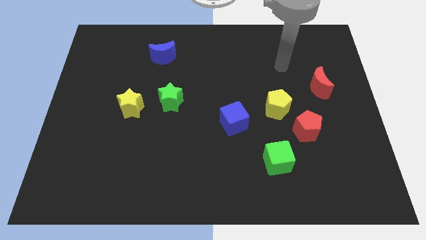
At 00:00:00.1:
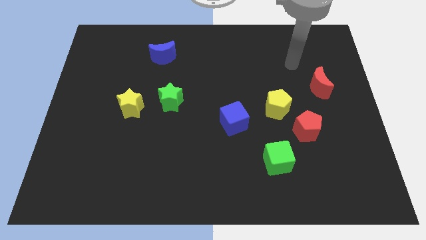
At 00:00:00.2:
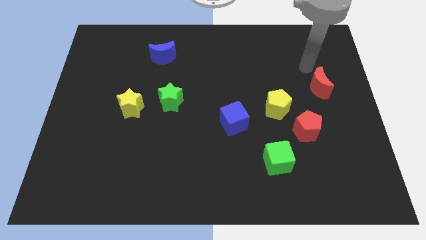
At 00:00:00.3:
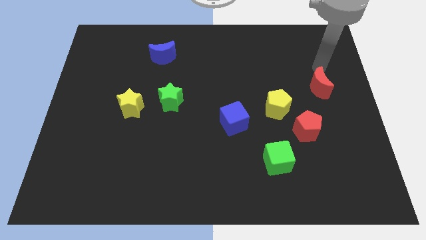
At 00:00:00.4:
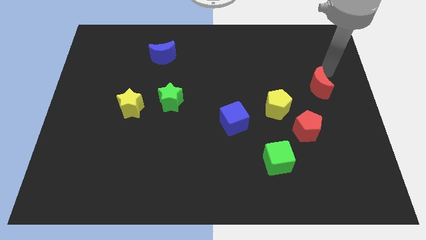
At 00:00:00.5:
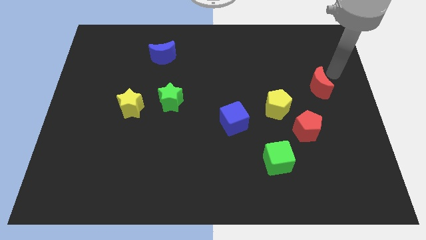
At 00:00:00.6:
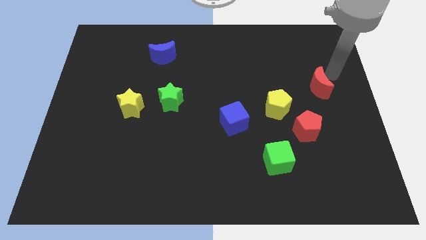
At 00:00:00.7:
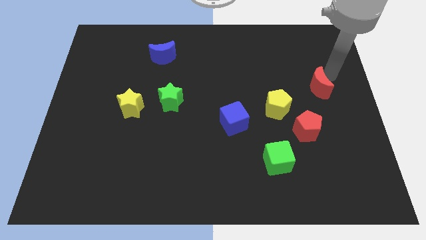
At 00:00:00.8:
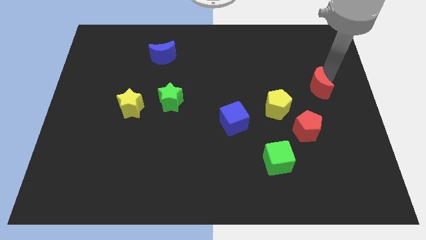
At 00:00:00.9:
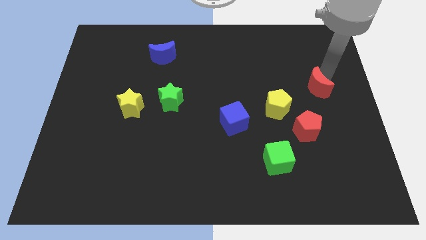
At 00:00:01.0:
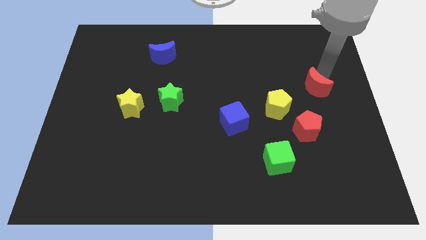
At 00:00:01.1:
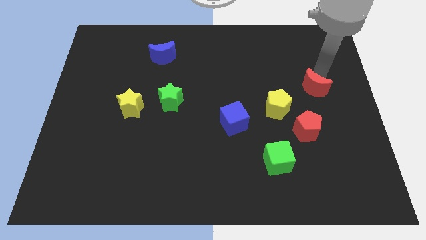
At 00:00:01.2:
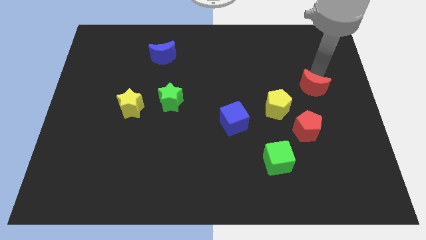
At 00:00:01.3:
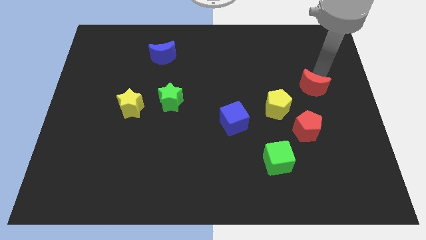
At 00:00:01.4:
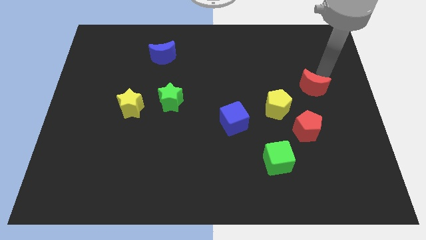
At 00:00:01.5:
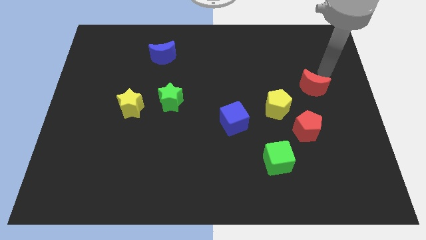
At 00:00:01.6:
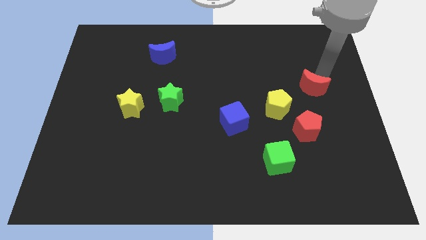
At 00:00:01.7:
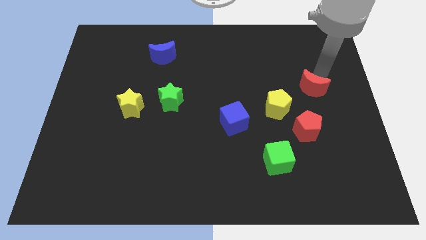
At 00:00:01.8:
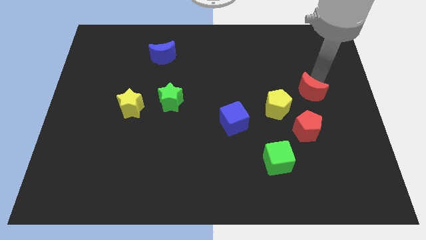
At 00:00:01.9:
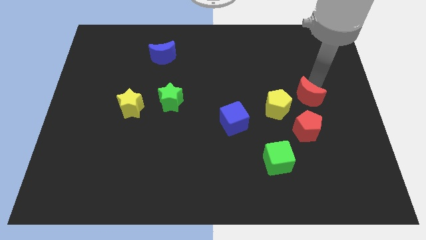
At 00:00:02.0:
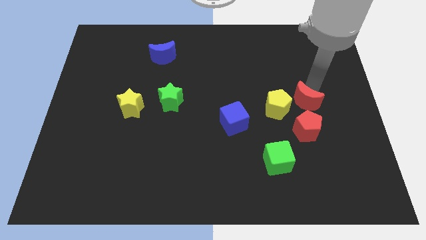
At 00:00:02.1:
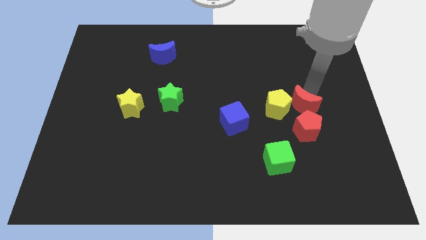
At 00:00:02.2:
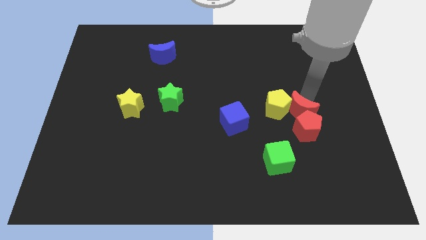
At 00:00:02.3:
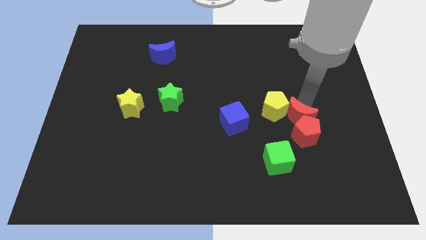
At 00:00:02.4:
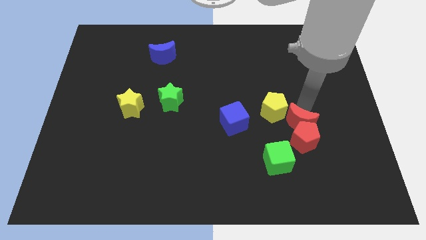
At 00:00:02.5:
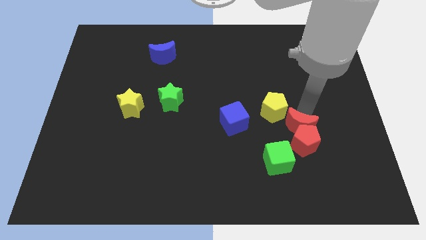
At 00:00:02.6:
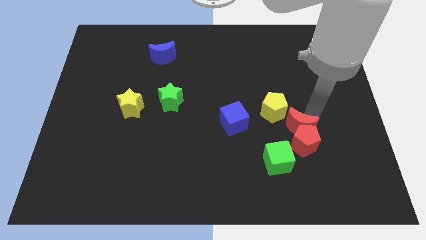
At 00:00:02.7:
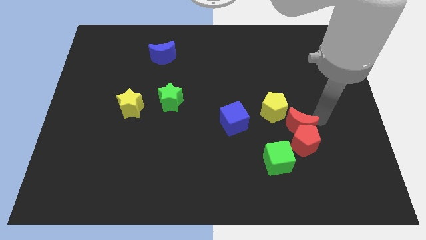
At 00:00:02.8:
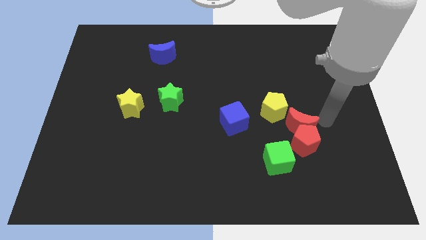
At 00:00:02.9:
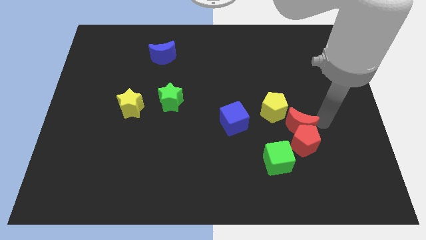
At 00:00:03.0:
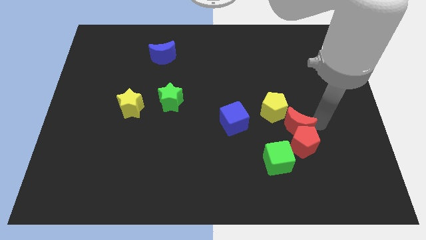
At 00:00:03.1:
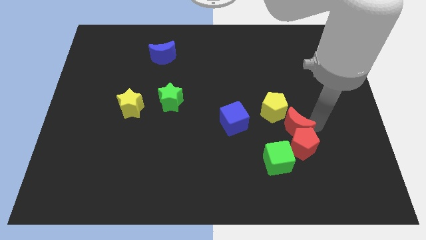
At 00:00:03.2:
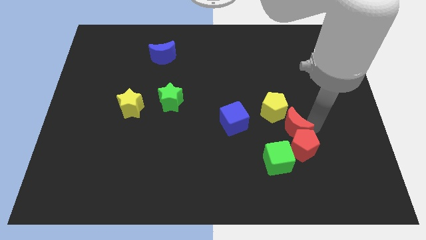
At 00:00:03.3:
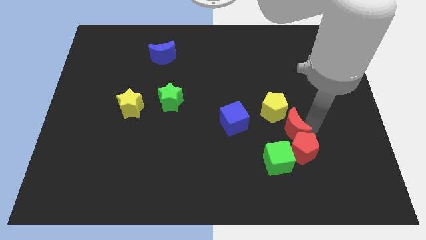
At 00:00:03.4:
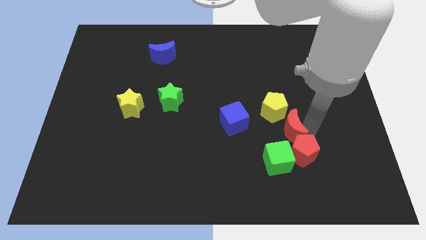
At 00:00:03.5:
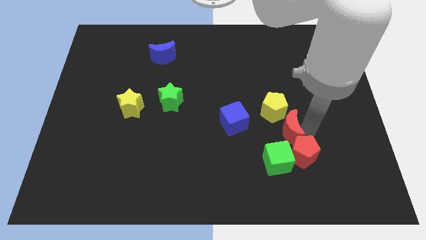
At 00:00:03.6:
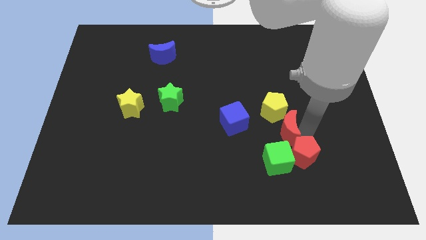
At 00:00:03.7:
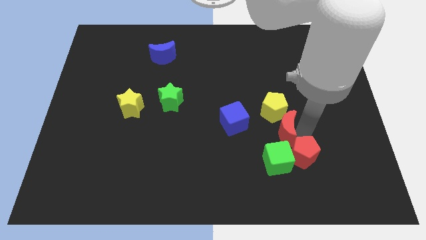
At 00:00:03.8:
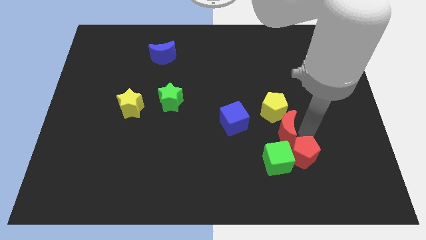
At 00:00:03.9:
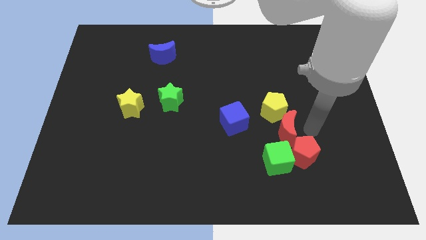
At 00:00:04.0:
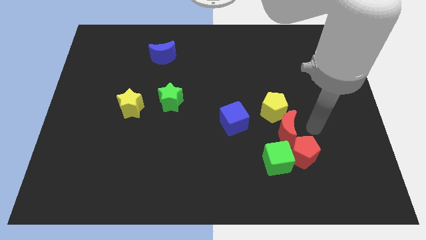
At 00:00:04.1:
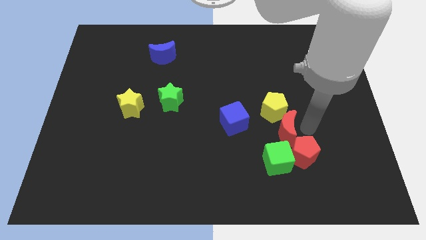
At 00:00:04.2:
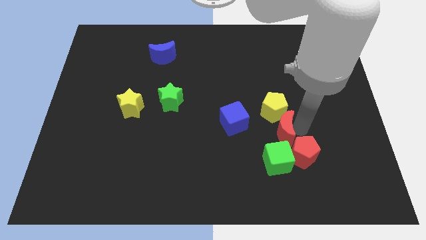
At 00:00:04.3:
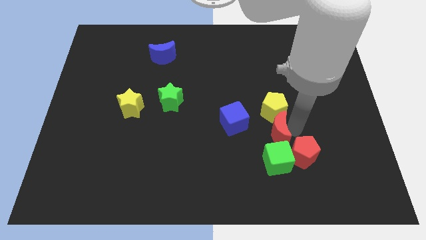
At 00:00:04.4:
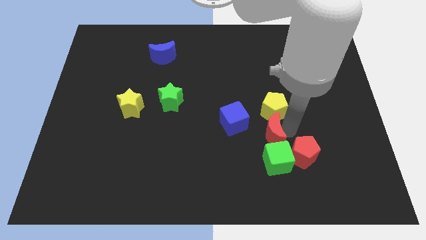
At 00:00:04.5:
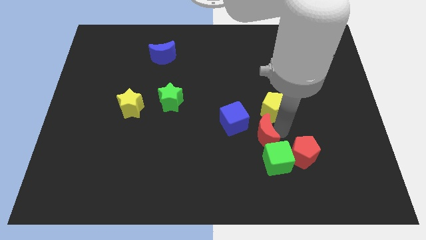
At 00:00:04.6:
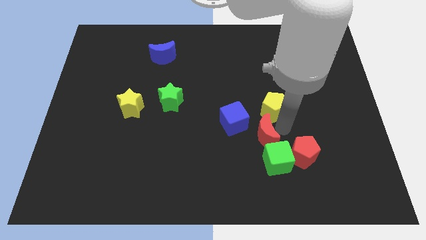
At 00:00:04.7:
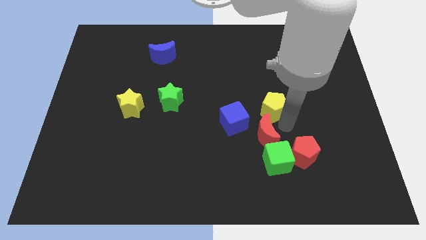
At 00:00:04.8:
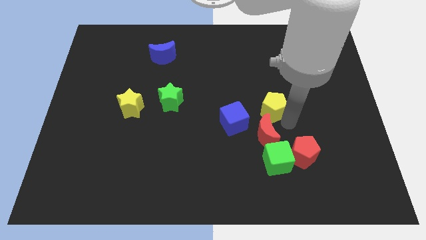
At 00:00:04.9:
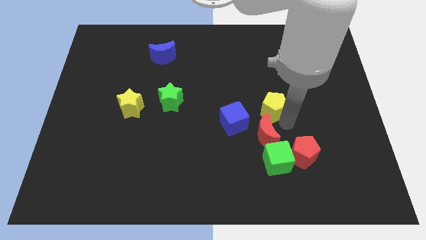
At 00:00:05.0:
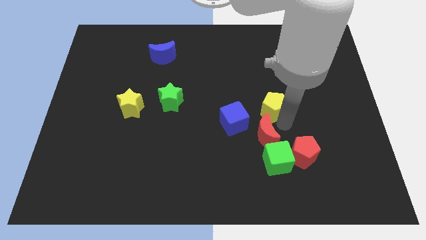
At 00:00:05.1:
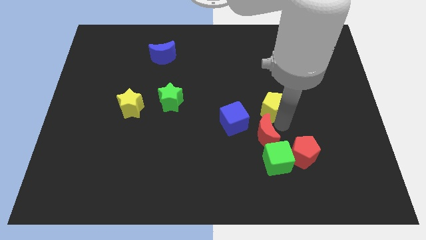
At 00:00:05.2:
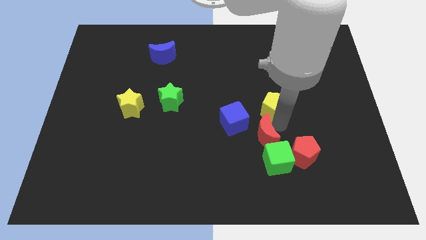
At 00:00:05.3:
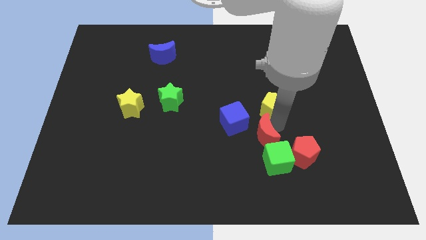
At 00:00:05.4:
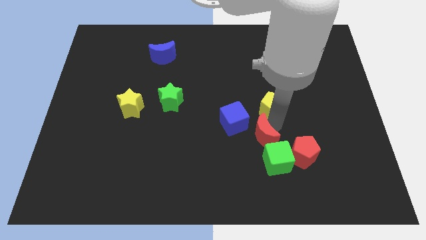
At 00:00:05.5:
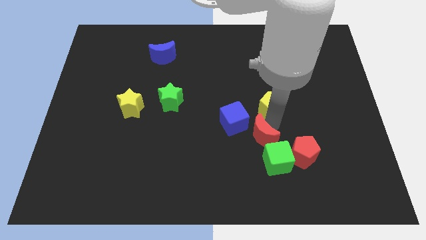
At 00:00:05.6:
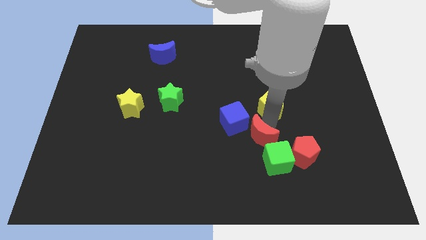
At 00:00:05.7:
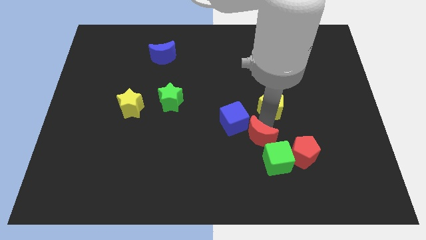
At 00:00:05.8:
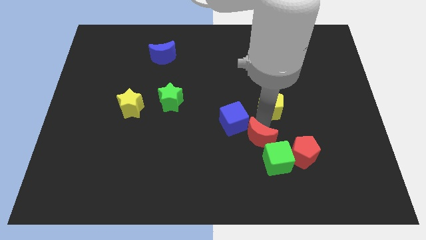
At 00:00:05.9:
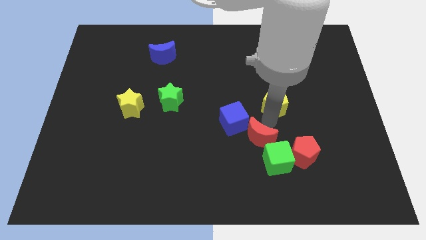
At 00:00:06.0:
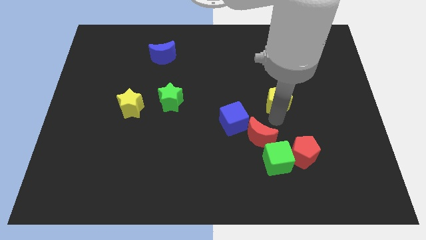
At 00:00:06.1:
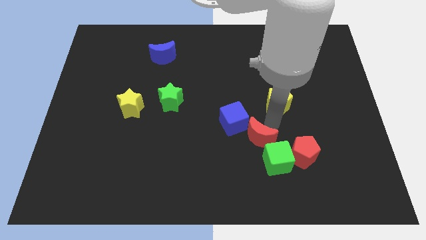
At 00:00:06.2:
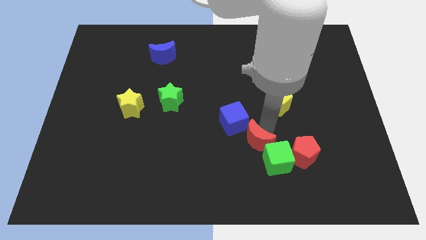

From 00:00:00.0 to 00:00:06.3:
push the red moon to the bottom side of the blue cube
